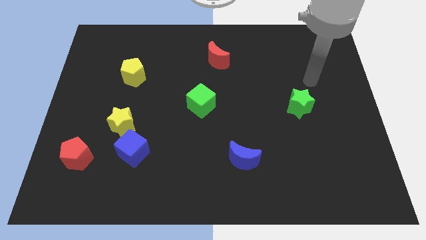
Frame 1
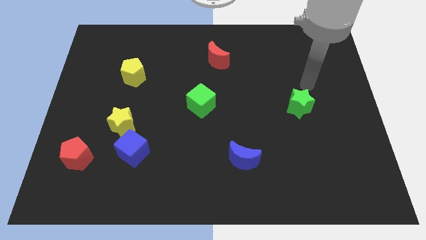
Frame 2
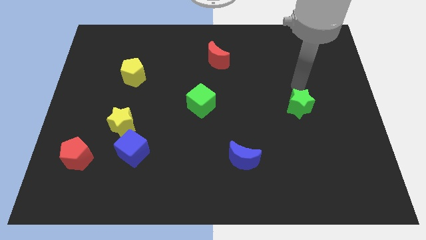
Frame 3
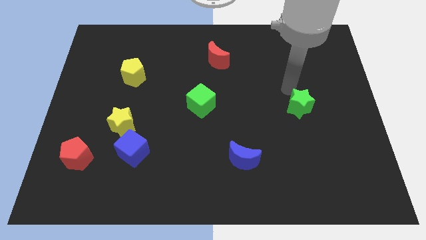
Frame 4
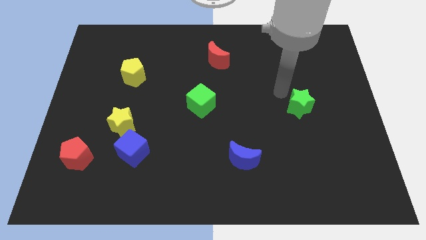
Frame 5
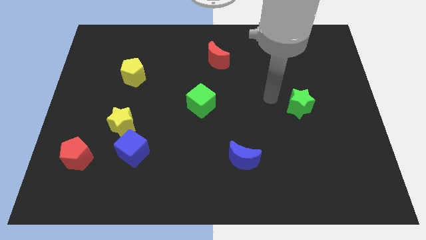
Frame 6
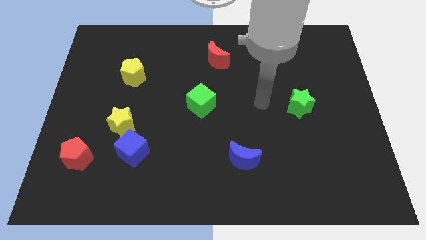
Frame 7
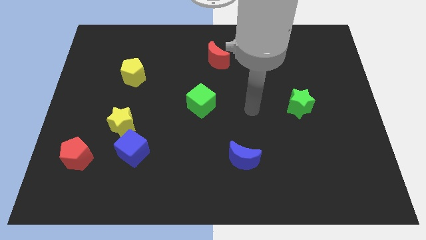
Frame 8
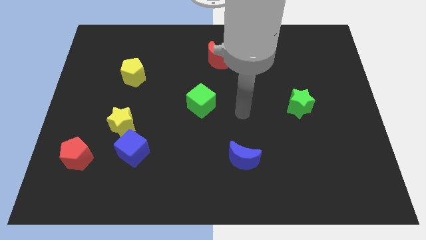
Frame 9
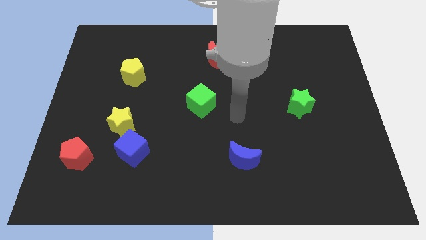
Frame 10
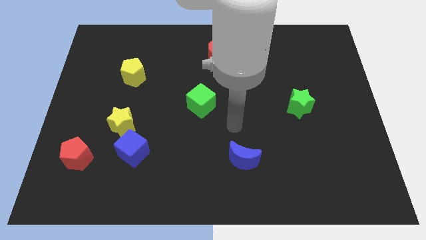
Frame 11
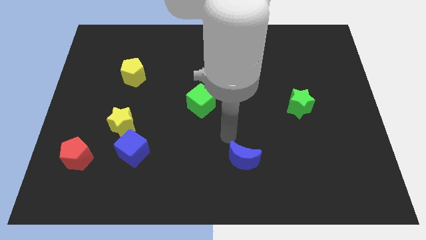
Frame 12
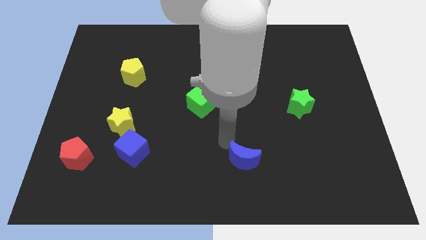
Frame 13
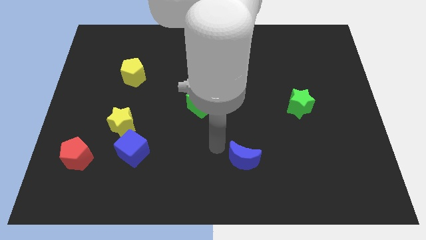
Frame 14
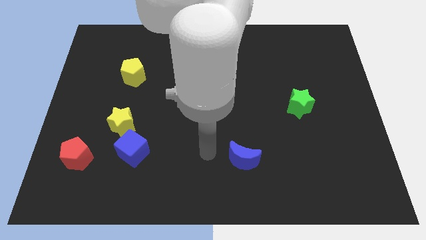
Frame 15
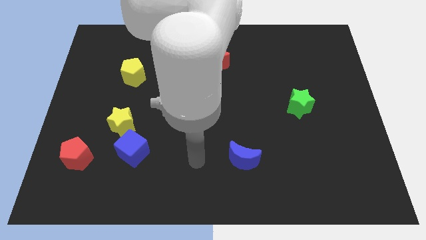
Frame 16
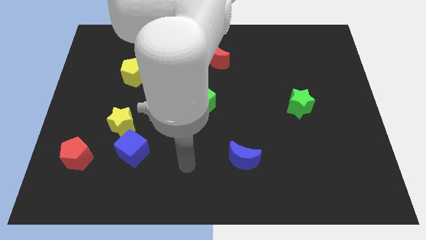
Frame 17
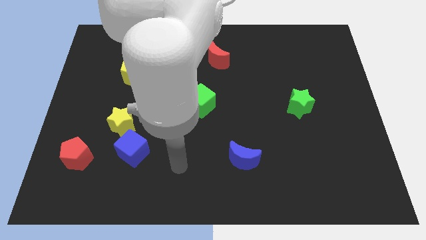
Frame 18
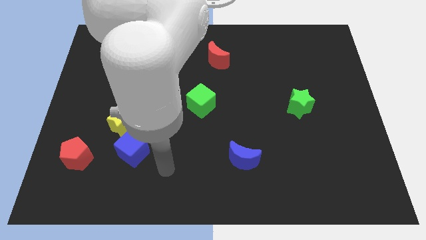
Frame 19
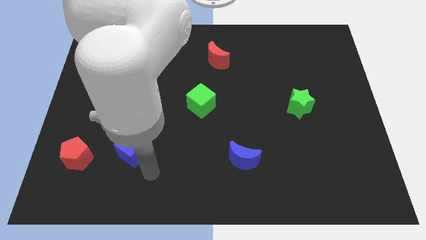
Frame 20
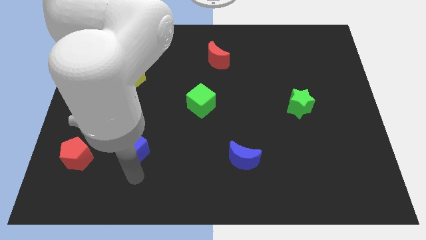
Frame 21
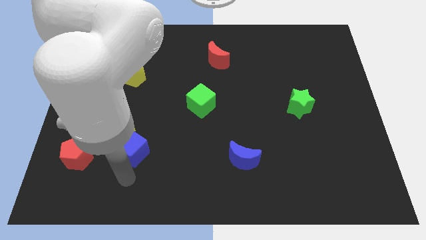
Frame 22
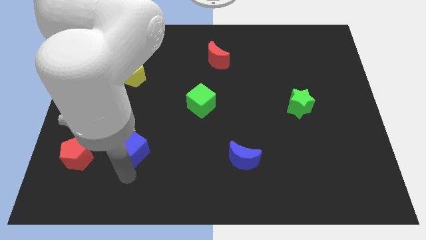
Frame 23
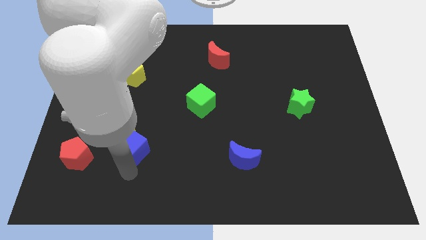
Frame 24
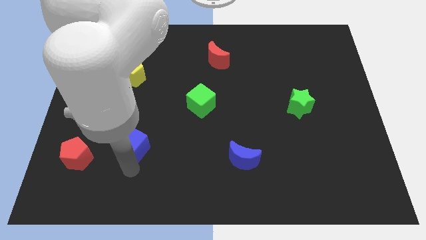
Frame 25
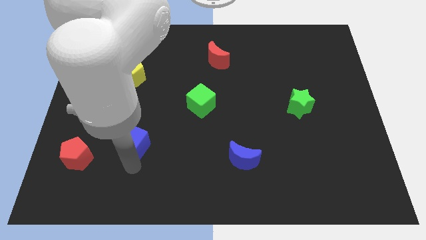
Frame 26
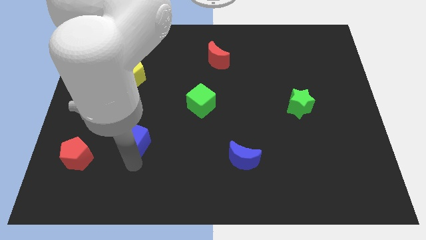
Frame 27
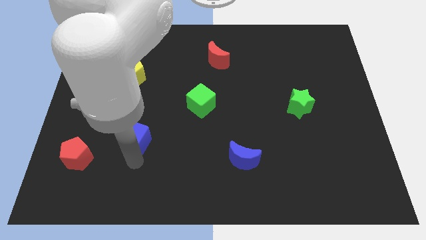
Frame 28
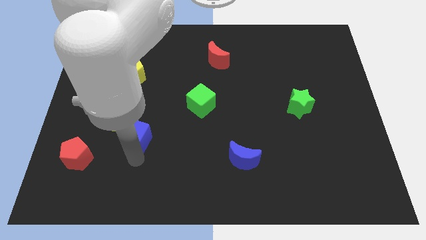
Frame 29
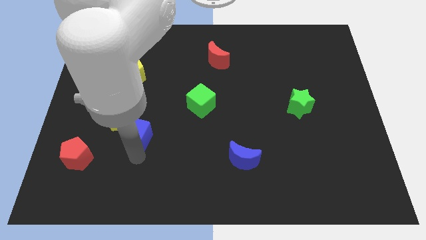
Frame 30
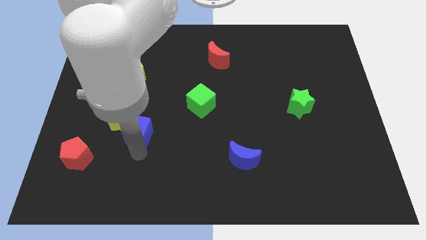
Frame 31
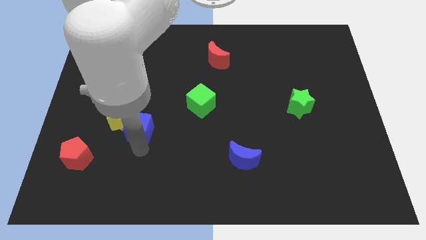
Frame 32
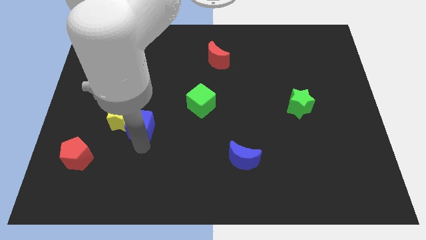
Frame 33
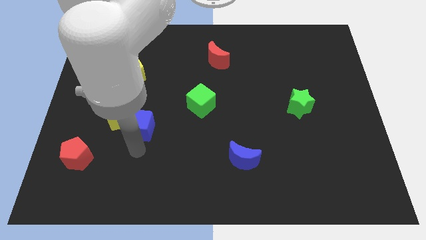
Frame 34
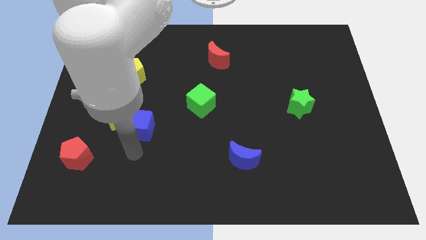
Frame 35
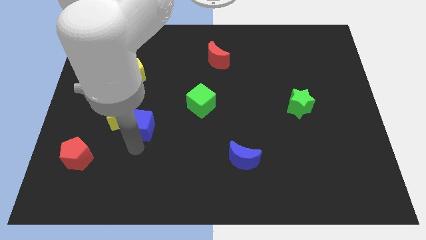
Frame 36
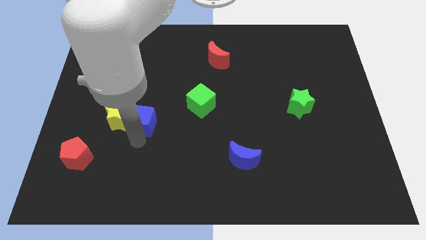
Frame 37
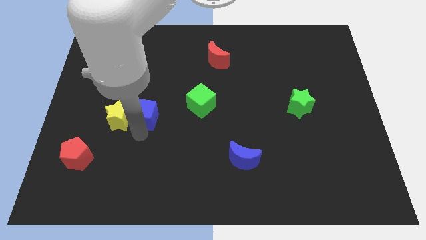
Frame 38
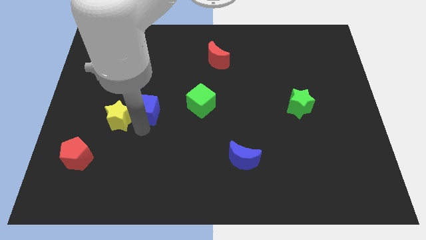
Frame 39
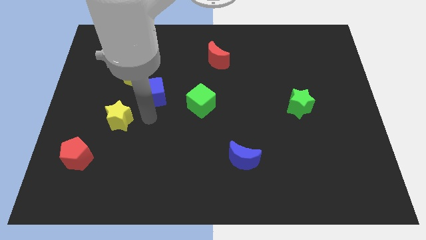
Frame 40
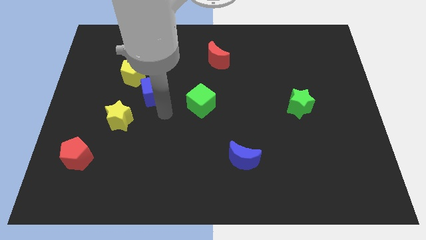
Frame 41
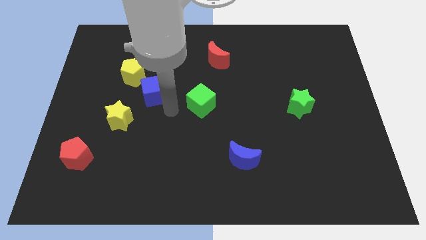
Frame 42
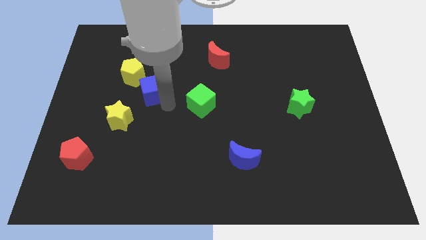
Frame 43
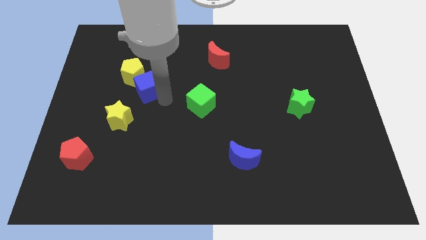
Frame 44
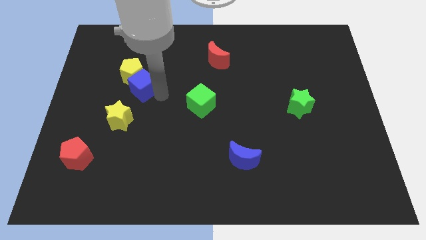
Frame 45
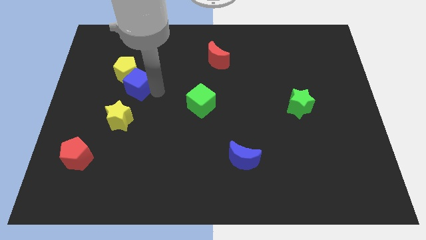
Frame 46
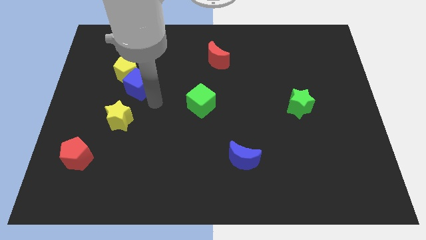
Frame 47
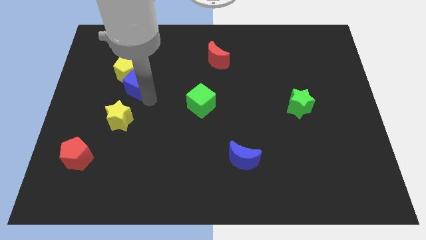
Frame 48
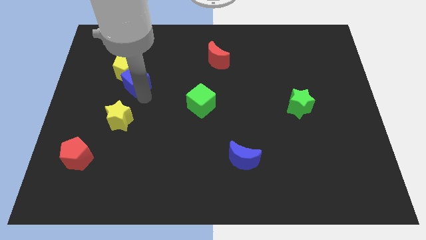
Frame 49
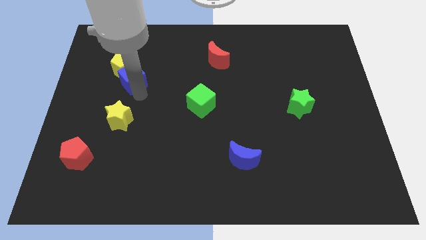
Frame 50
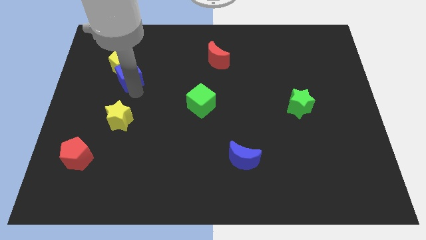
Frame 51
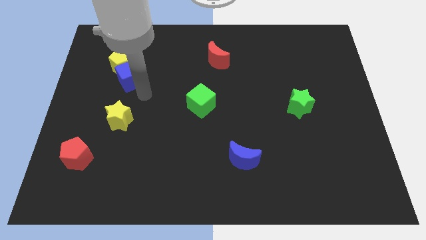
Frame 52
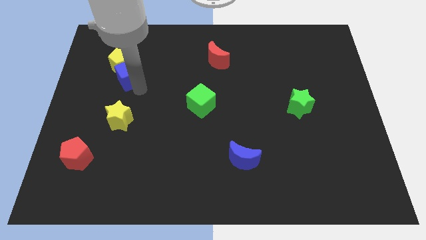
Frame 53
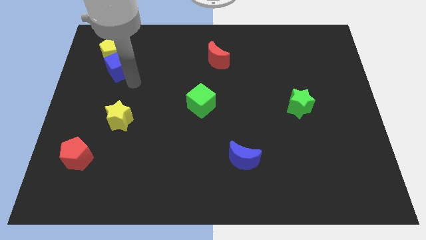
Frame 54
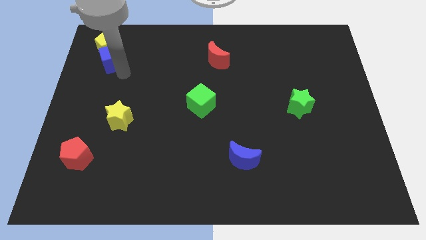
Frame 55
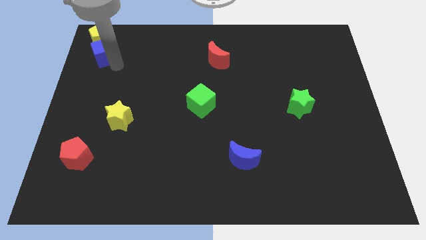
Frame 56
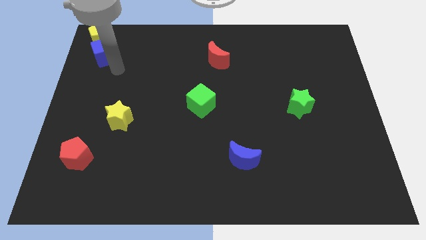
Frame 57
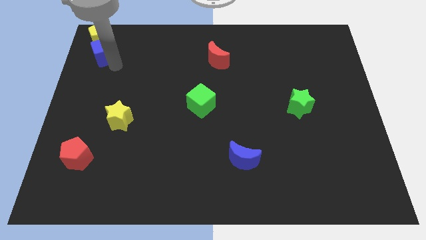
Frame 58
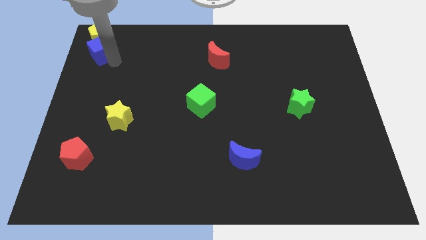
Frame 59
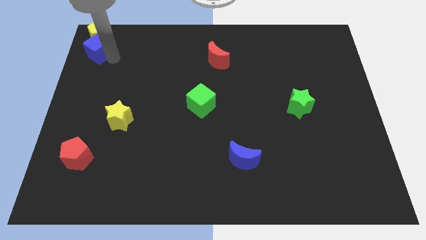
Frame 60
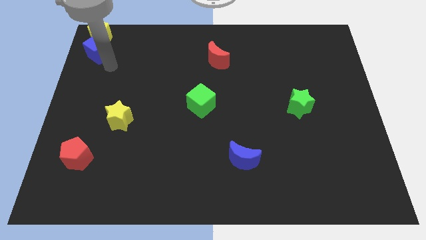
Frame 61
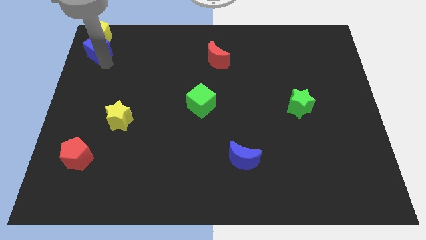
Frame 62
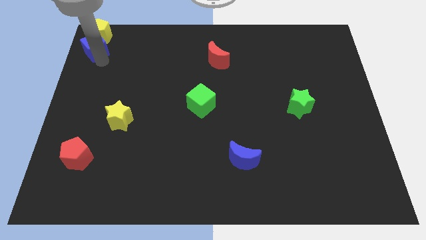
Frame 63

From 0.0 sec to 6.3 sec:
slide the blue cube to the upper left corner

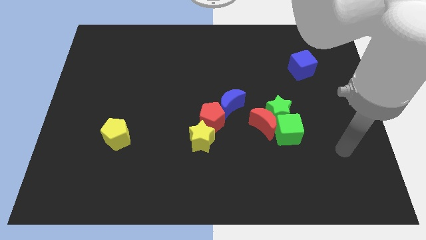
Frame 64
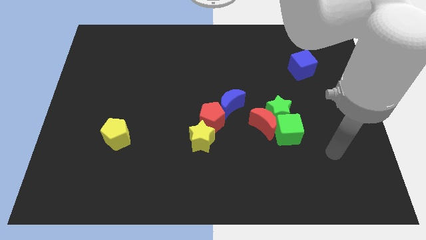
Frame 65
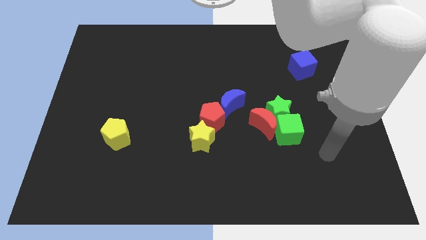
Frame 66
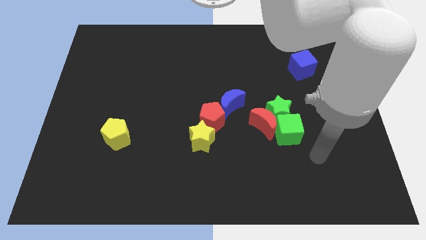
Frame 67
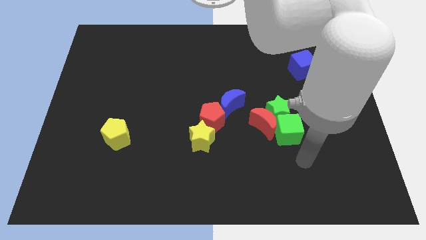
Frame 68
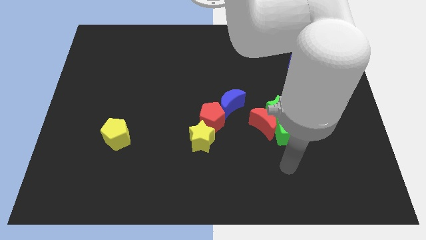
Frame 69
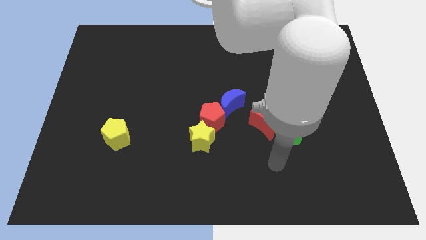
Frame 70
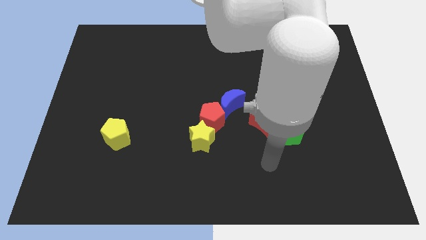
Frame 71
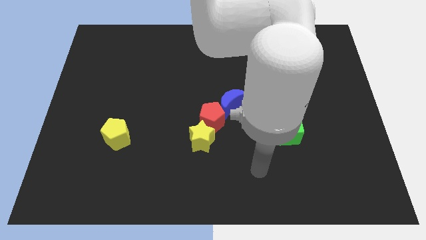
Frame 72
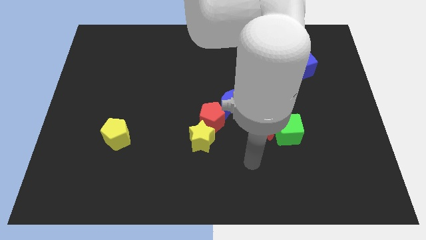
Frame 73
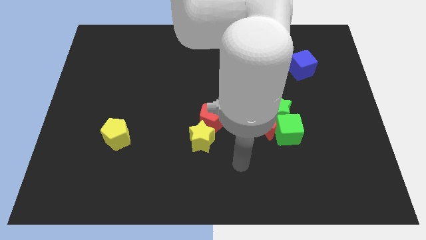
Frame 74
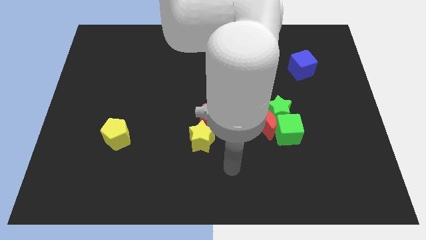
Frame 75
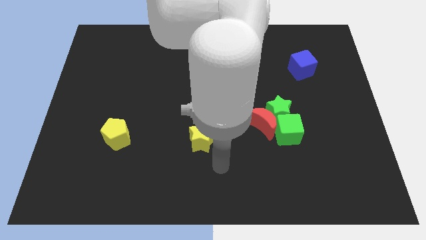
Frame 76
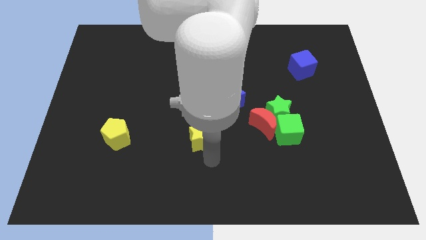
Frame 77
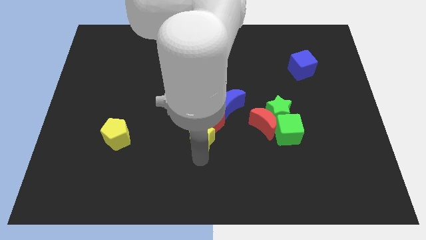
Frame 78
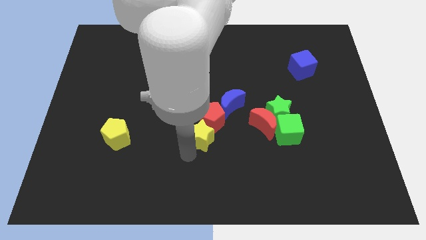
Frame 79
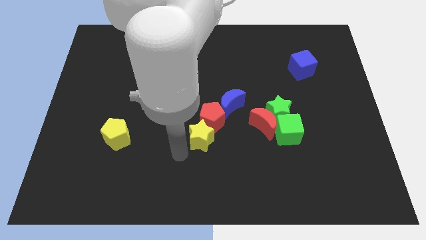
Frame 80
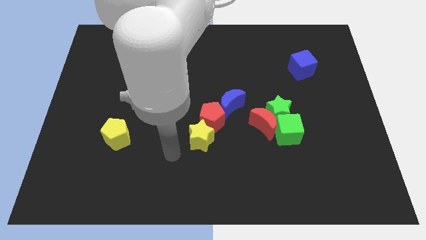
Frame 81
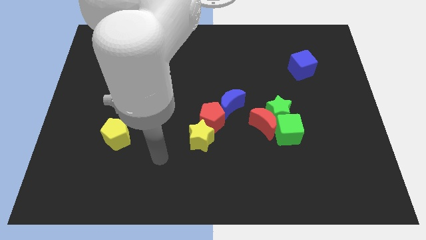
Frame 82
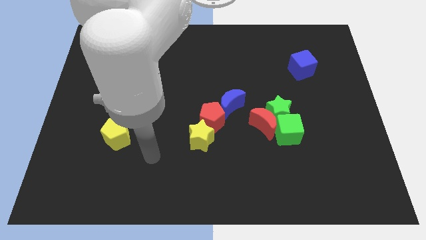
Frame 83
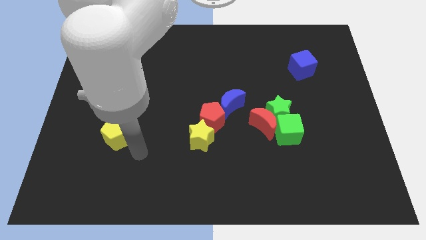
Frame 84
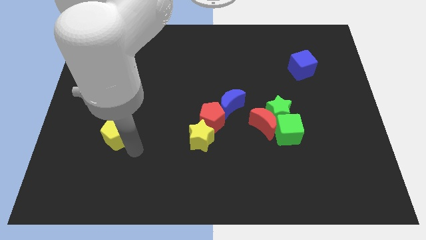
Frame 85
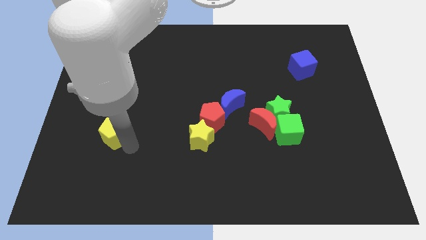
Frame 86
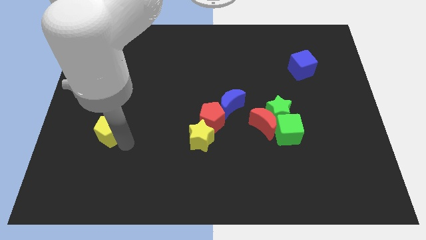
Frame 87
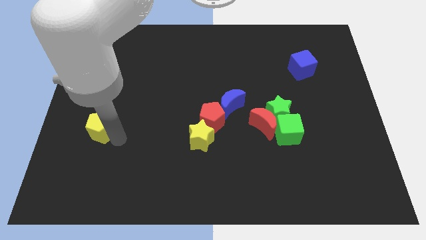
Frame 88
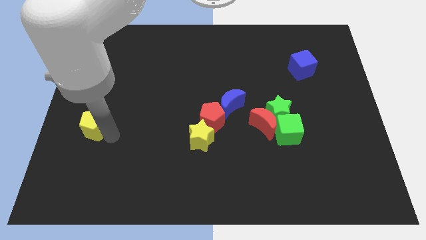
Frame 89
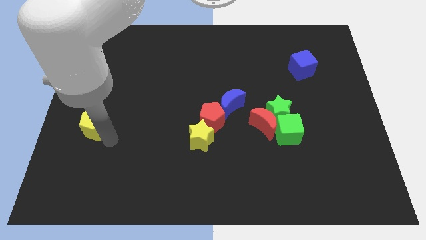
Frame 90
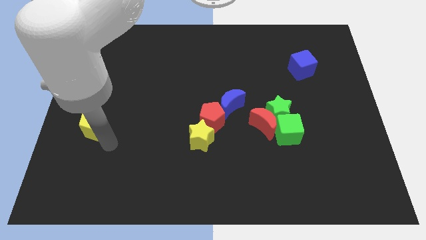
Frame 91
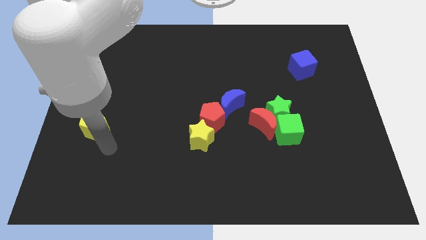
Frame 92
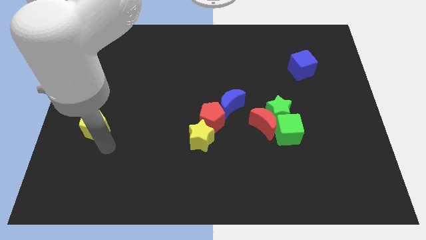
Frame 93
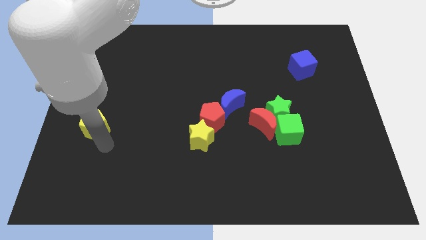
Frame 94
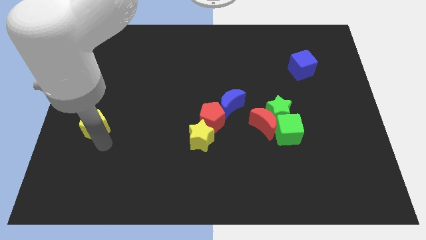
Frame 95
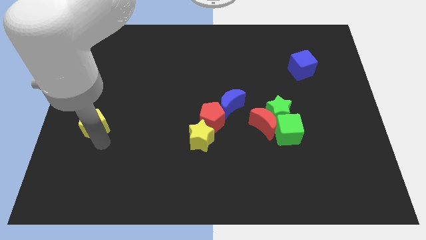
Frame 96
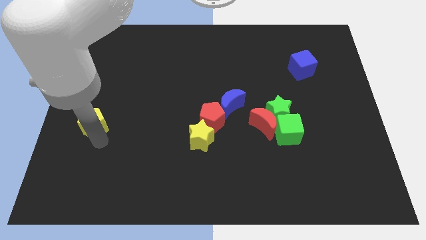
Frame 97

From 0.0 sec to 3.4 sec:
push the yellow pentagon to the left side of the board
